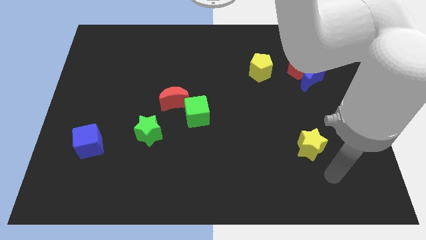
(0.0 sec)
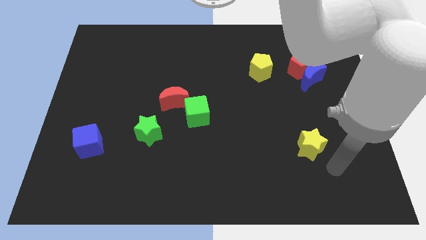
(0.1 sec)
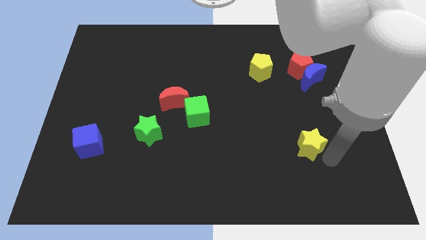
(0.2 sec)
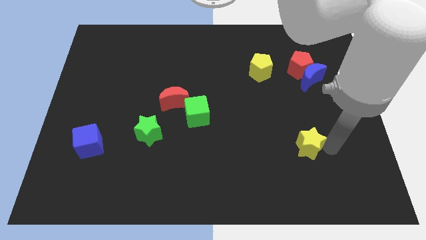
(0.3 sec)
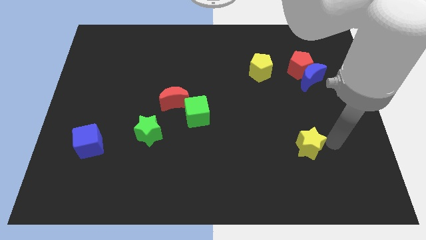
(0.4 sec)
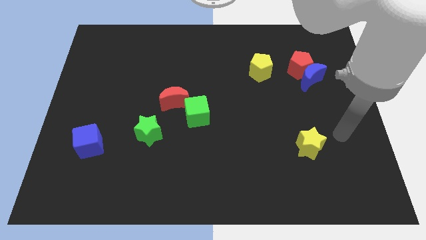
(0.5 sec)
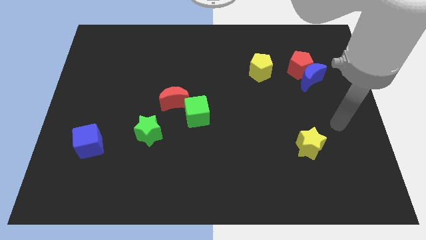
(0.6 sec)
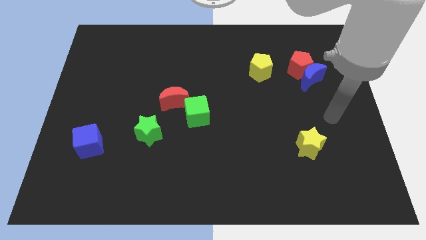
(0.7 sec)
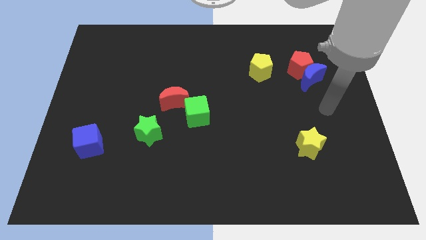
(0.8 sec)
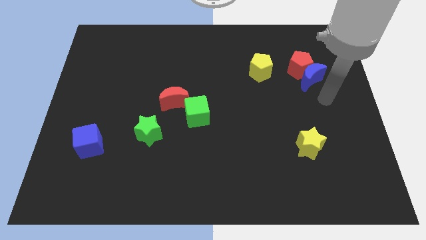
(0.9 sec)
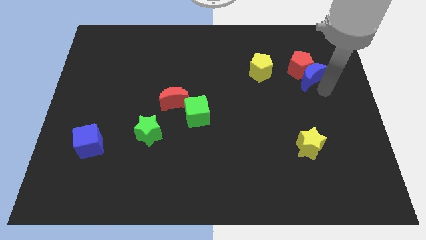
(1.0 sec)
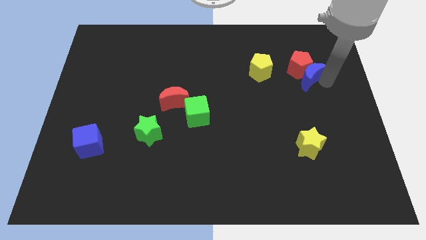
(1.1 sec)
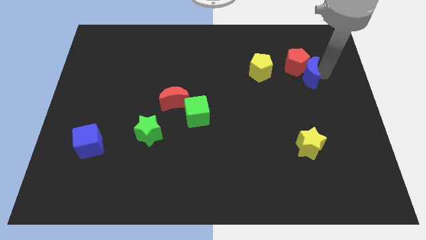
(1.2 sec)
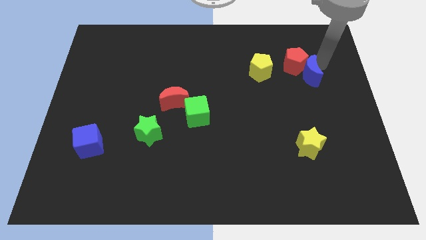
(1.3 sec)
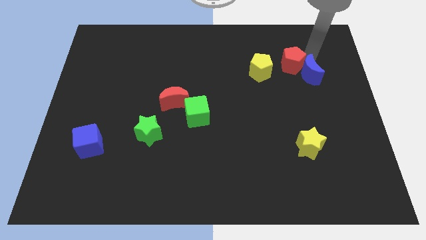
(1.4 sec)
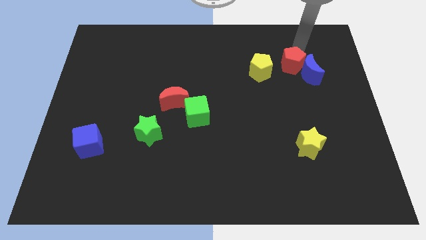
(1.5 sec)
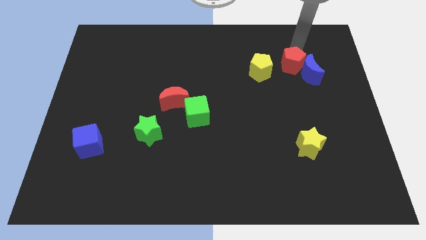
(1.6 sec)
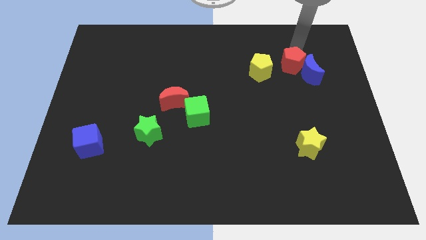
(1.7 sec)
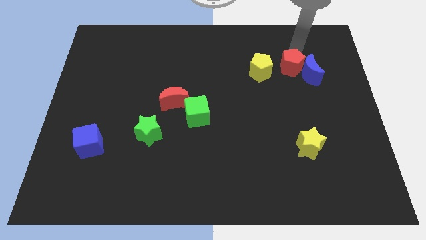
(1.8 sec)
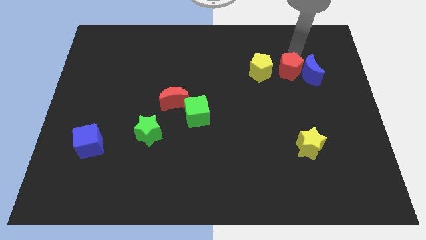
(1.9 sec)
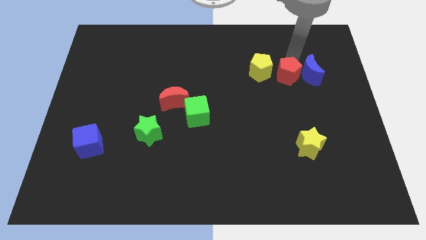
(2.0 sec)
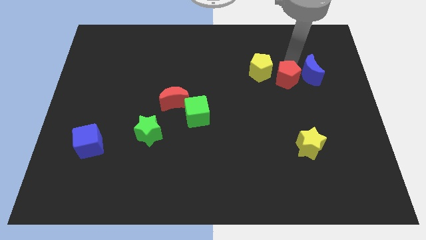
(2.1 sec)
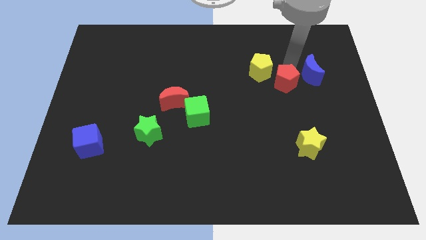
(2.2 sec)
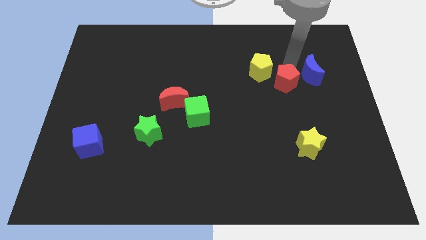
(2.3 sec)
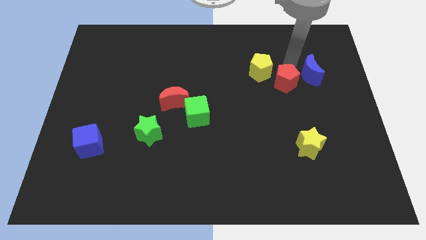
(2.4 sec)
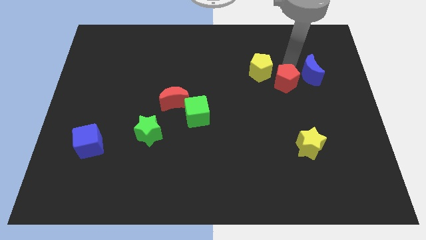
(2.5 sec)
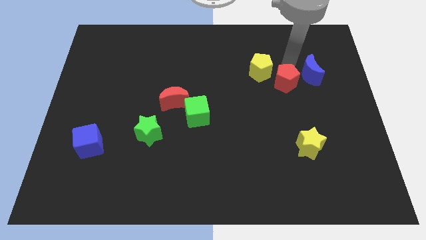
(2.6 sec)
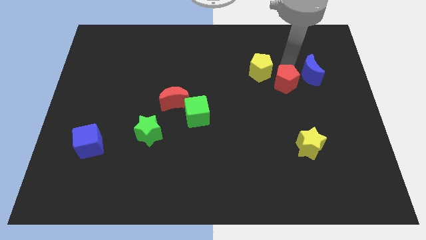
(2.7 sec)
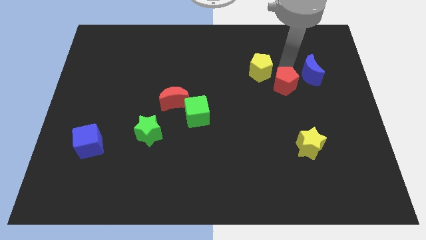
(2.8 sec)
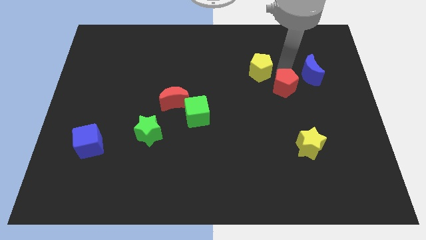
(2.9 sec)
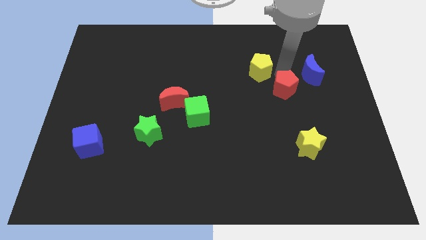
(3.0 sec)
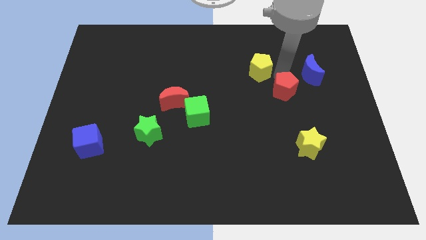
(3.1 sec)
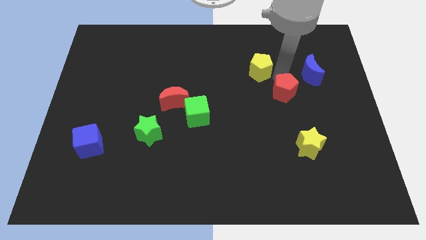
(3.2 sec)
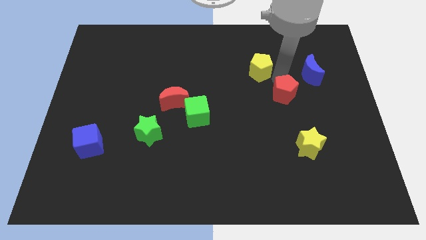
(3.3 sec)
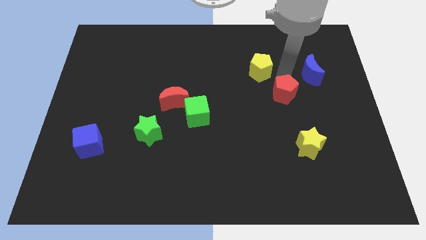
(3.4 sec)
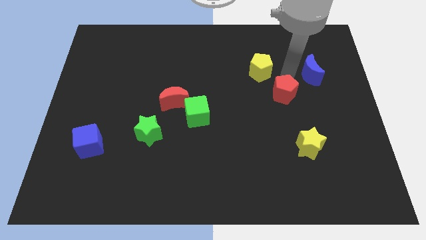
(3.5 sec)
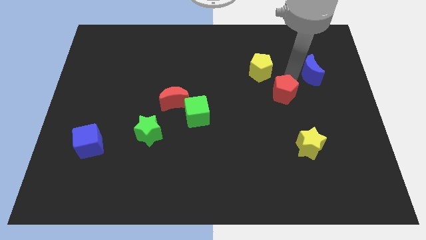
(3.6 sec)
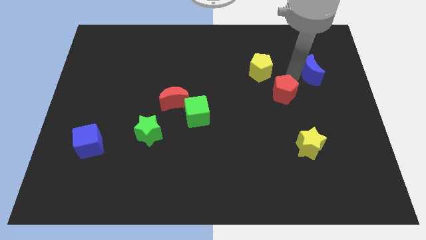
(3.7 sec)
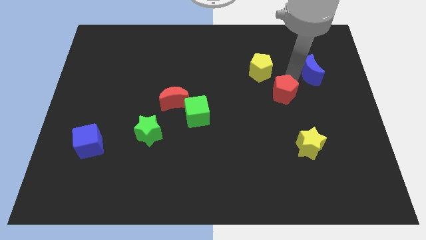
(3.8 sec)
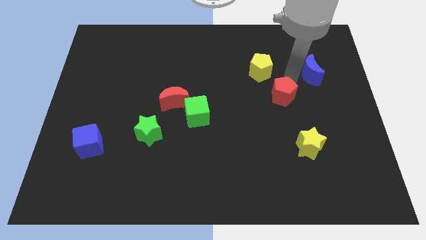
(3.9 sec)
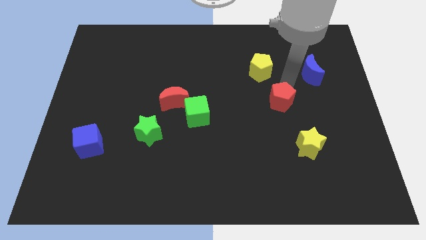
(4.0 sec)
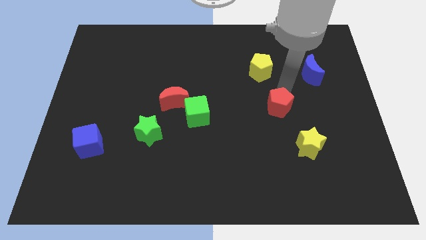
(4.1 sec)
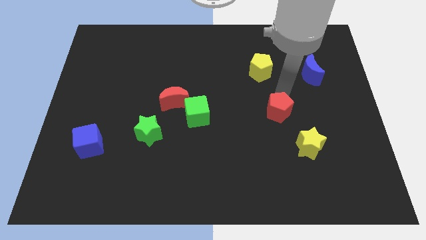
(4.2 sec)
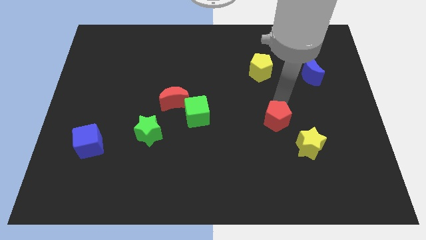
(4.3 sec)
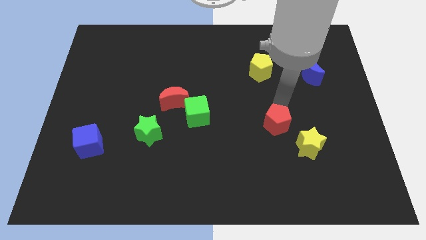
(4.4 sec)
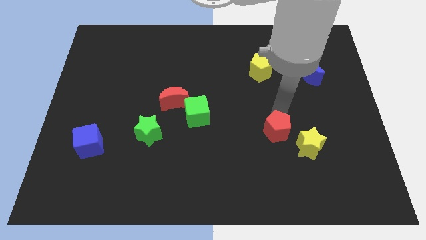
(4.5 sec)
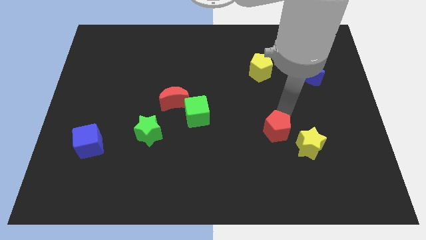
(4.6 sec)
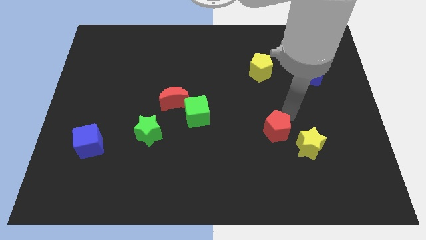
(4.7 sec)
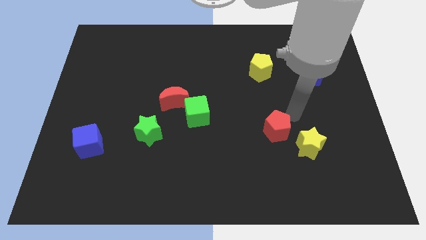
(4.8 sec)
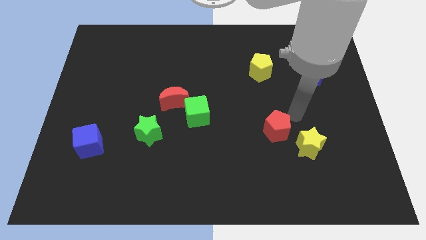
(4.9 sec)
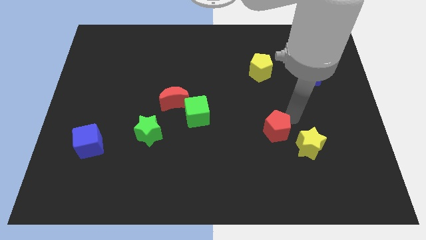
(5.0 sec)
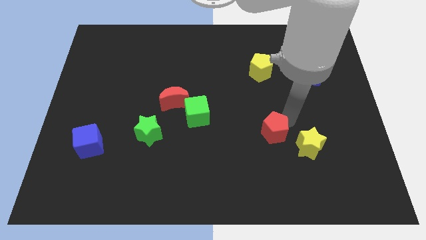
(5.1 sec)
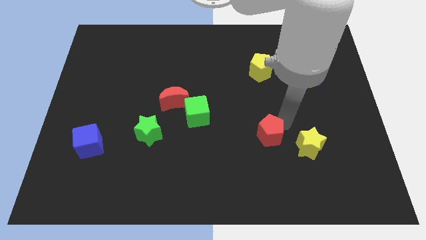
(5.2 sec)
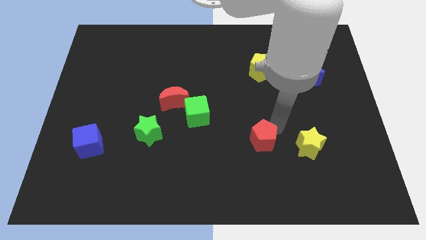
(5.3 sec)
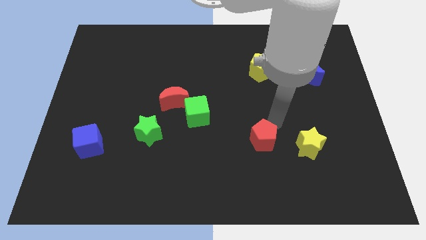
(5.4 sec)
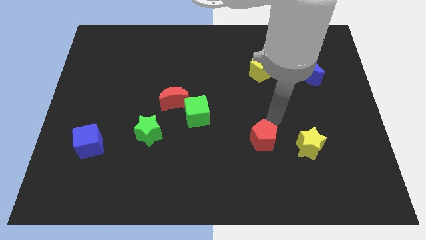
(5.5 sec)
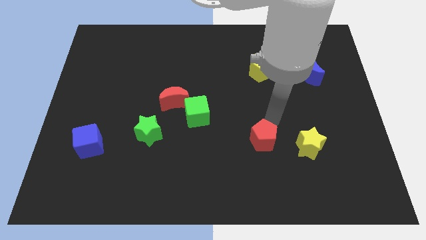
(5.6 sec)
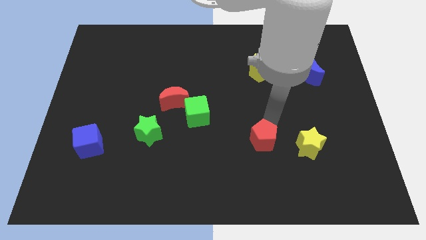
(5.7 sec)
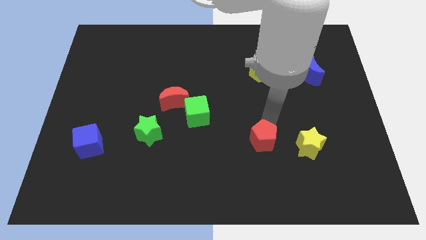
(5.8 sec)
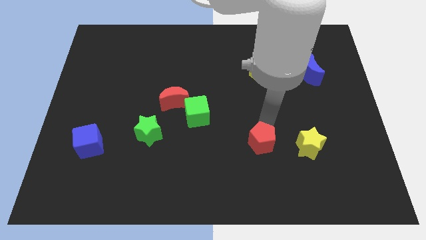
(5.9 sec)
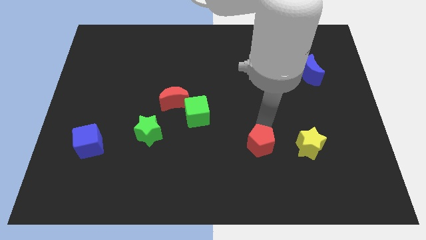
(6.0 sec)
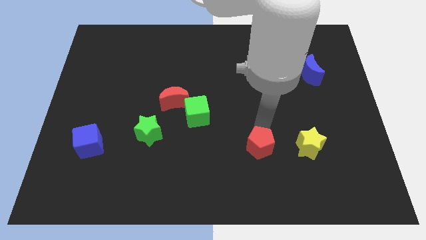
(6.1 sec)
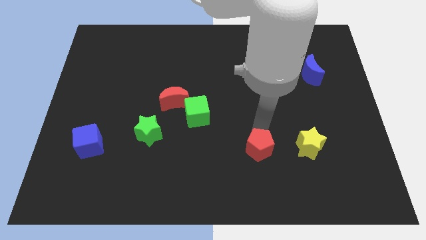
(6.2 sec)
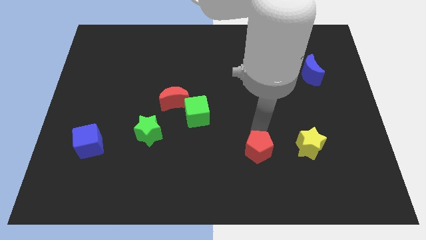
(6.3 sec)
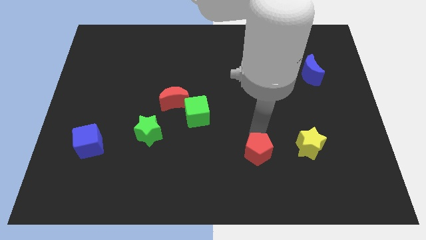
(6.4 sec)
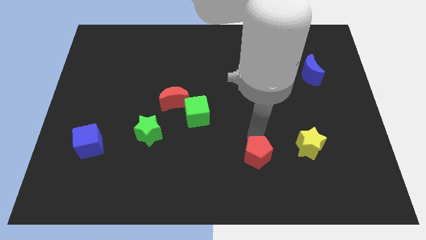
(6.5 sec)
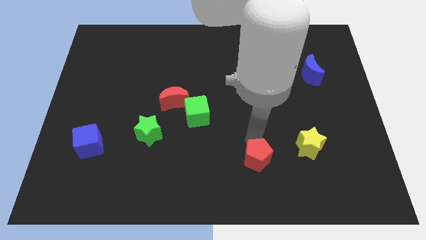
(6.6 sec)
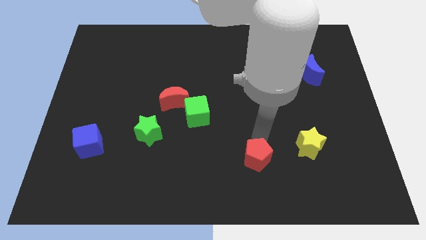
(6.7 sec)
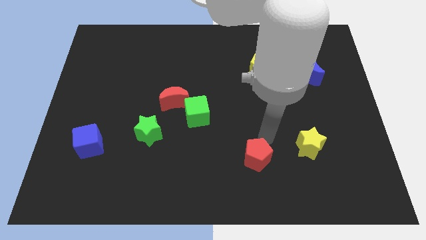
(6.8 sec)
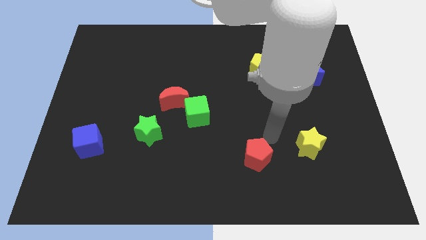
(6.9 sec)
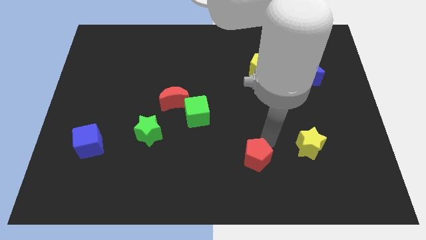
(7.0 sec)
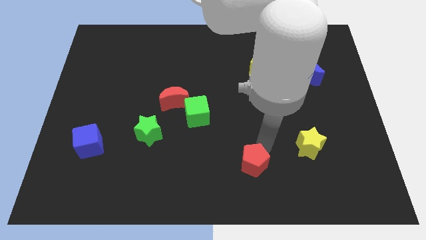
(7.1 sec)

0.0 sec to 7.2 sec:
slide the red pentagon to the bottom
